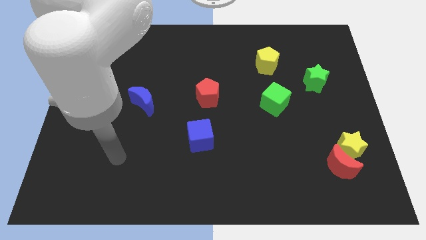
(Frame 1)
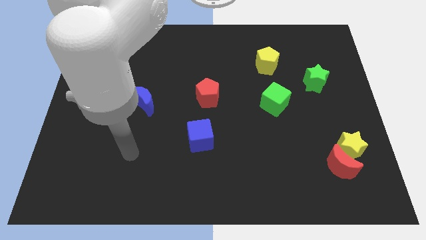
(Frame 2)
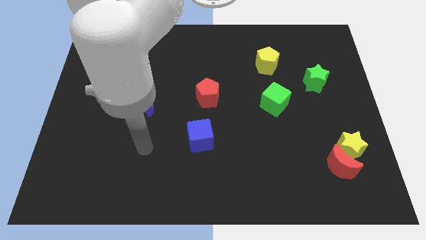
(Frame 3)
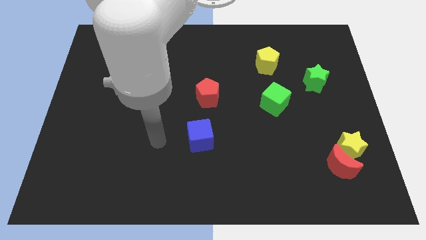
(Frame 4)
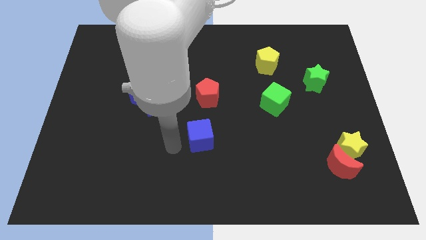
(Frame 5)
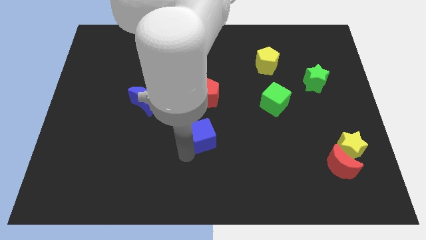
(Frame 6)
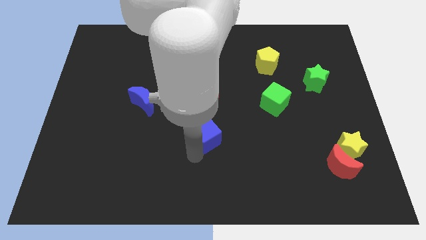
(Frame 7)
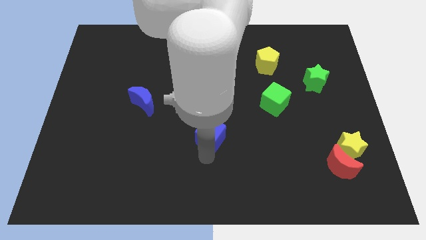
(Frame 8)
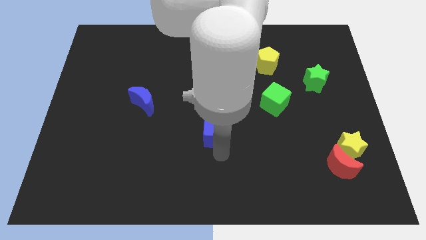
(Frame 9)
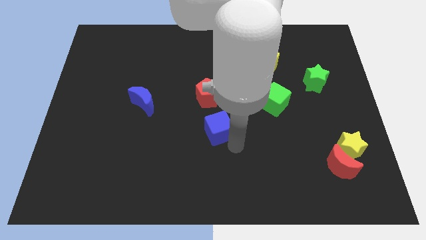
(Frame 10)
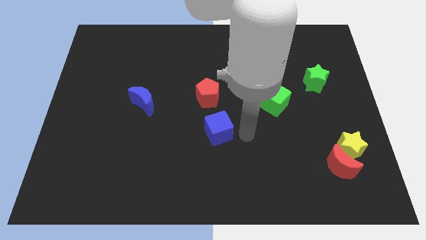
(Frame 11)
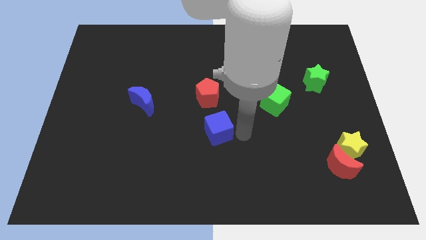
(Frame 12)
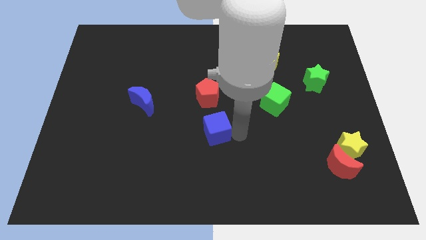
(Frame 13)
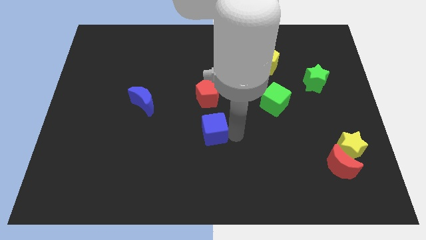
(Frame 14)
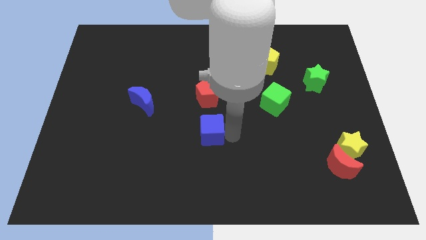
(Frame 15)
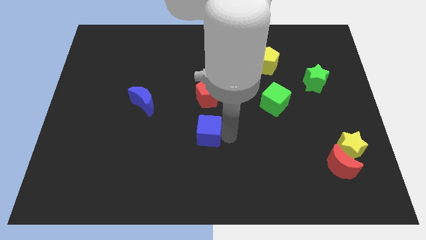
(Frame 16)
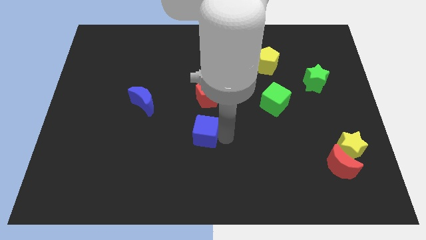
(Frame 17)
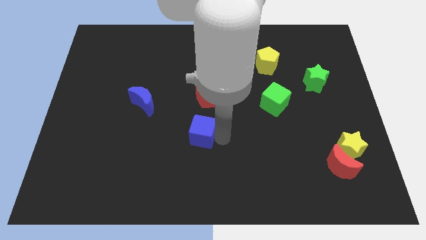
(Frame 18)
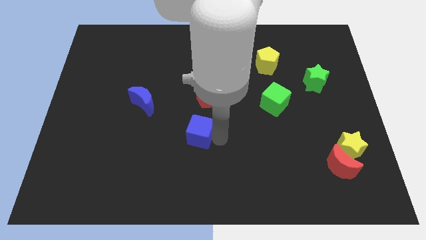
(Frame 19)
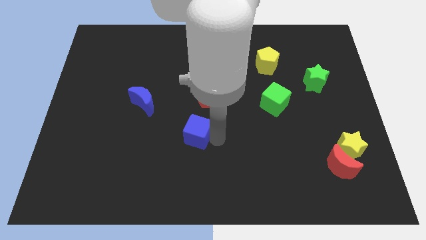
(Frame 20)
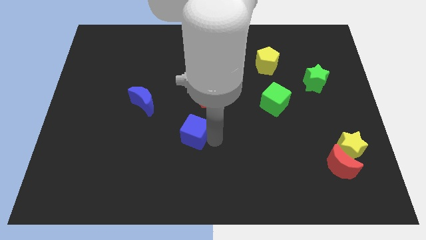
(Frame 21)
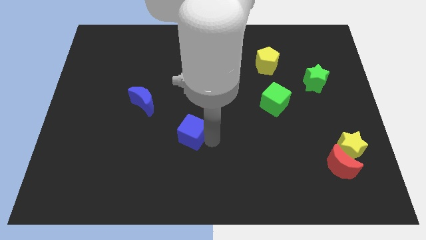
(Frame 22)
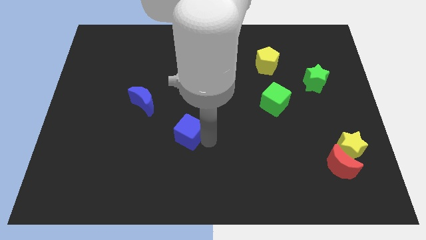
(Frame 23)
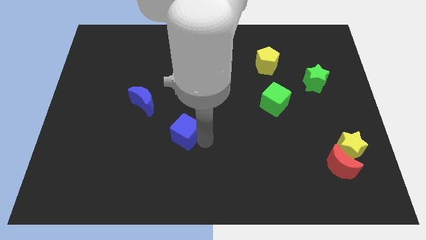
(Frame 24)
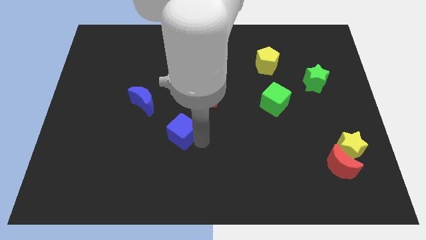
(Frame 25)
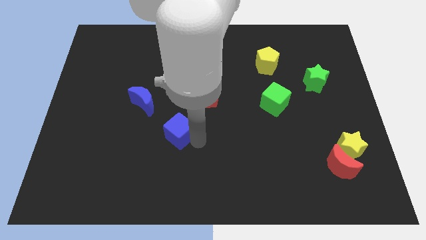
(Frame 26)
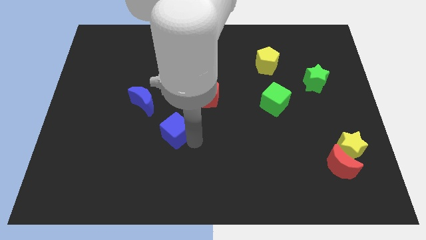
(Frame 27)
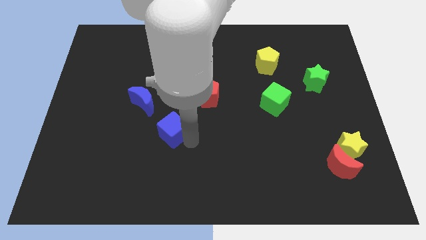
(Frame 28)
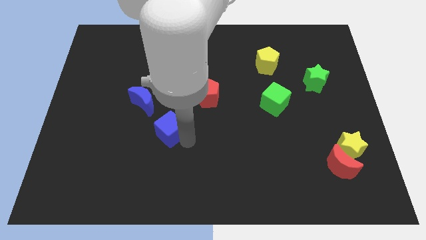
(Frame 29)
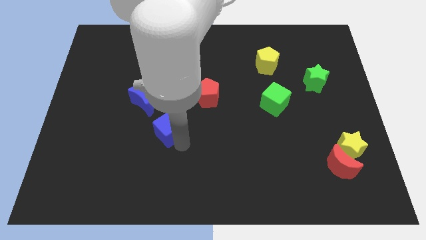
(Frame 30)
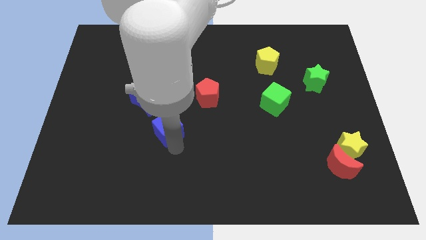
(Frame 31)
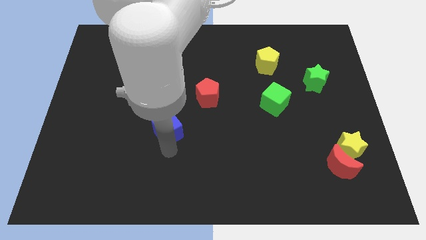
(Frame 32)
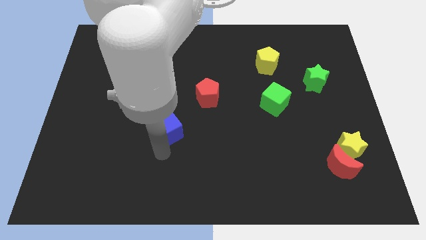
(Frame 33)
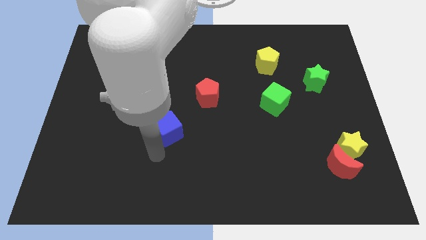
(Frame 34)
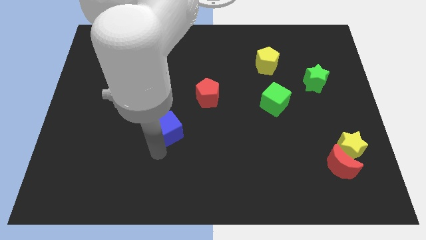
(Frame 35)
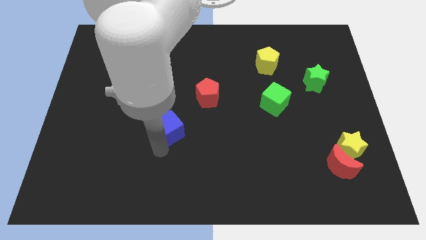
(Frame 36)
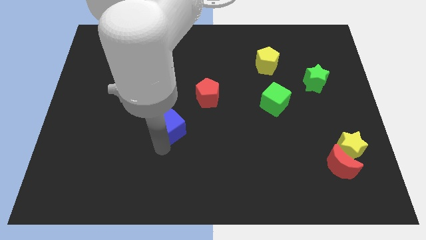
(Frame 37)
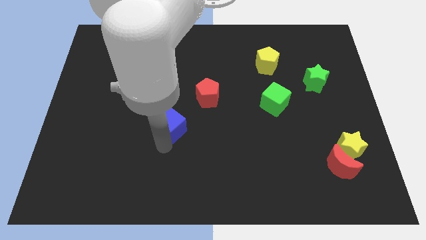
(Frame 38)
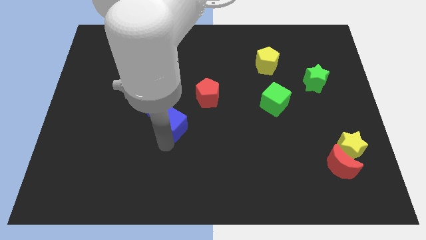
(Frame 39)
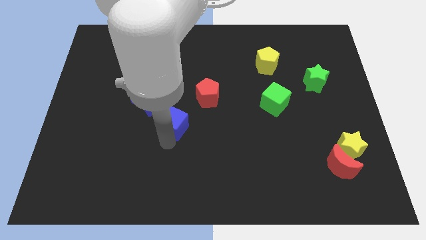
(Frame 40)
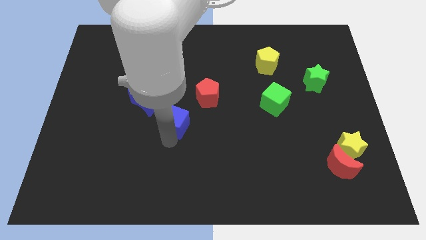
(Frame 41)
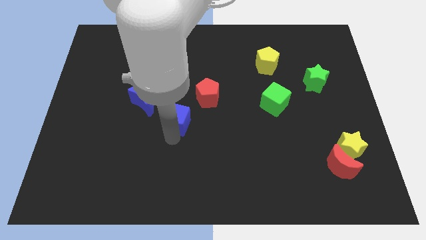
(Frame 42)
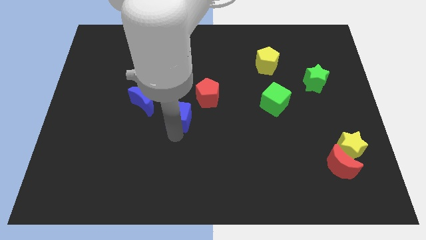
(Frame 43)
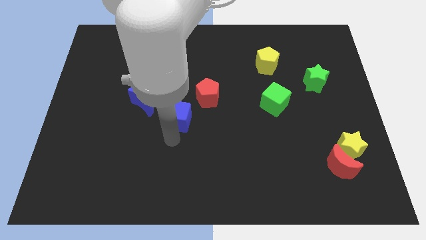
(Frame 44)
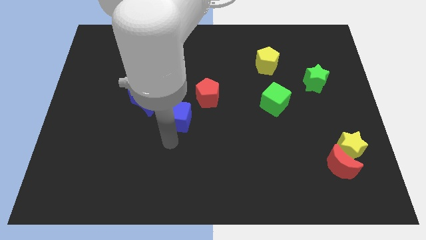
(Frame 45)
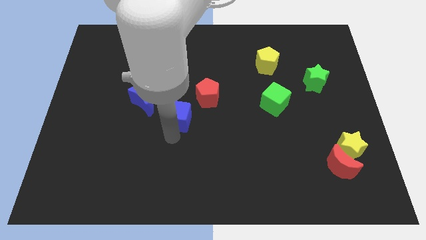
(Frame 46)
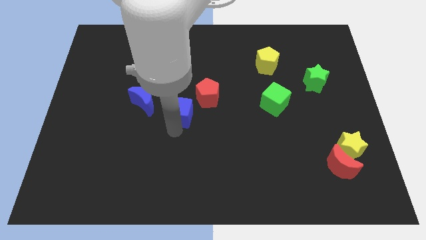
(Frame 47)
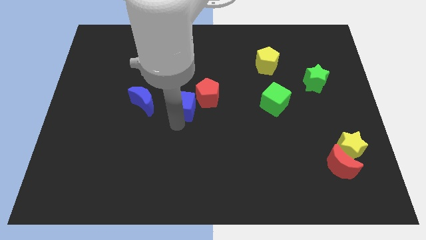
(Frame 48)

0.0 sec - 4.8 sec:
slightly slide the blue cube up

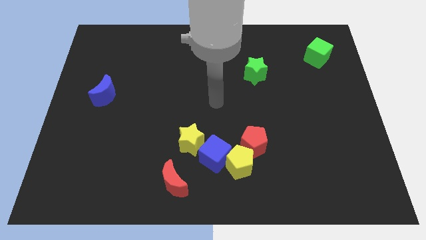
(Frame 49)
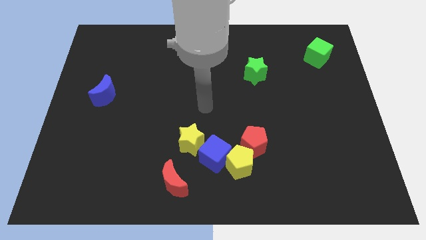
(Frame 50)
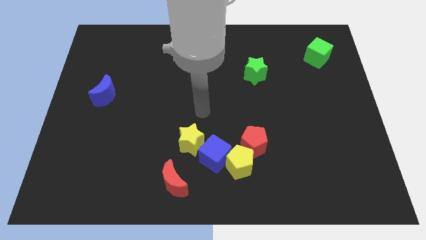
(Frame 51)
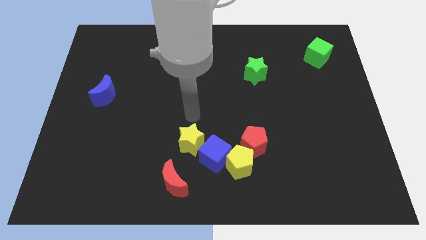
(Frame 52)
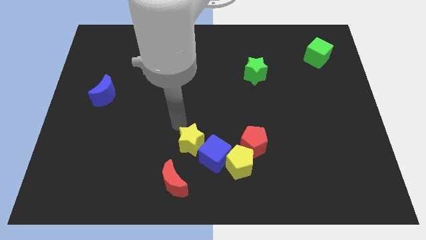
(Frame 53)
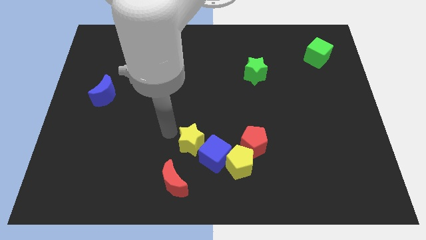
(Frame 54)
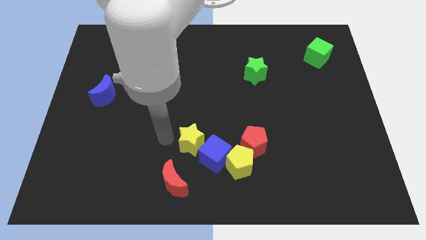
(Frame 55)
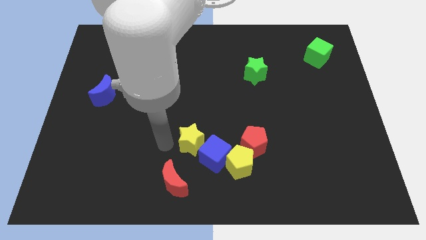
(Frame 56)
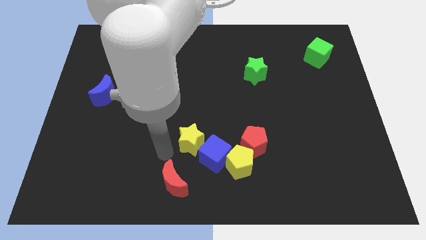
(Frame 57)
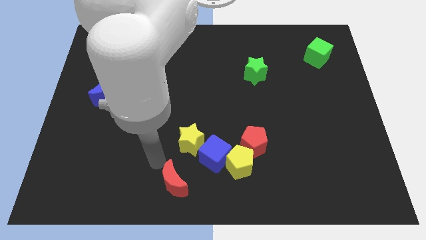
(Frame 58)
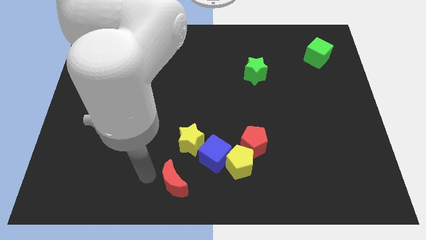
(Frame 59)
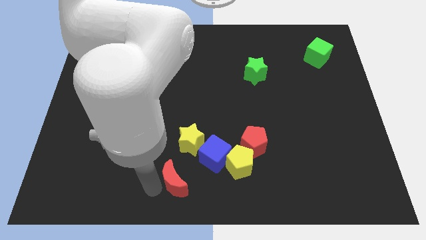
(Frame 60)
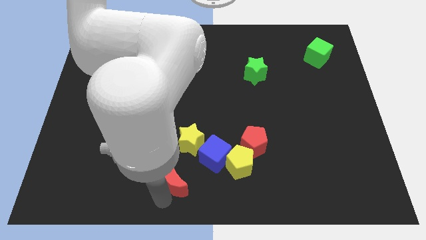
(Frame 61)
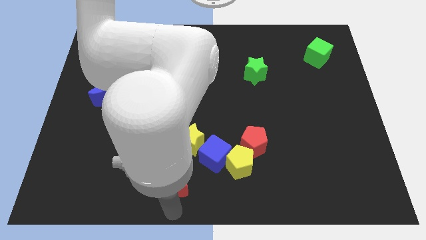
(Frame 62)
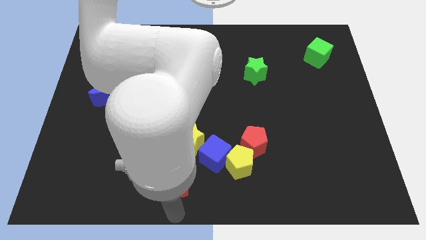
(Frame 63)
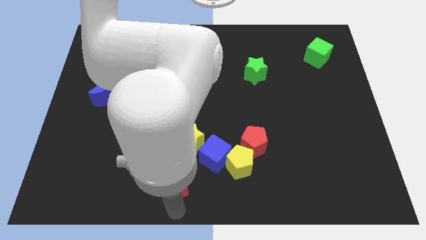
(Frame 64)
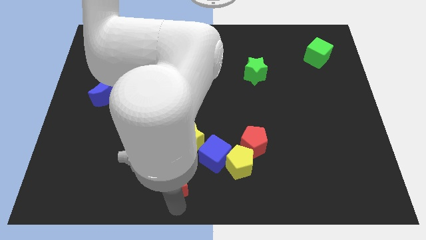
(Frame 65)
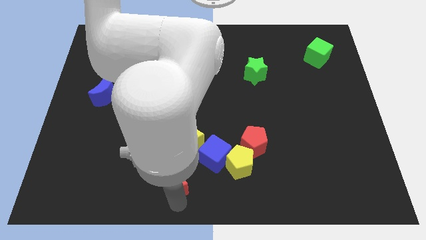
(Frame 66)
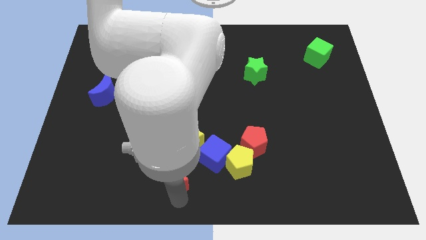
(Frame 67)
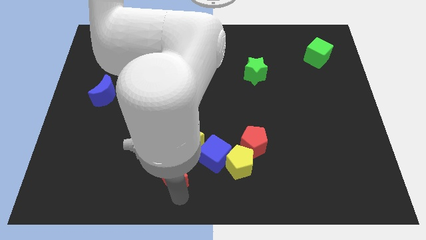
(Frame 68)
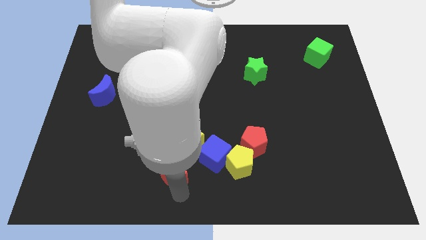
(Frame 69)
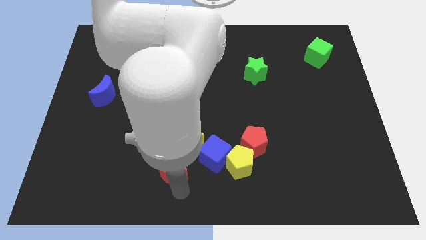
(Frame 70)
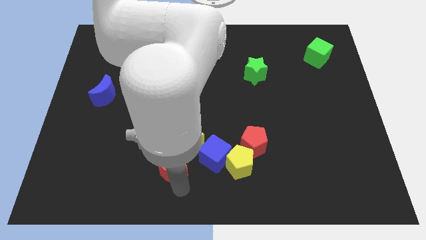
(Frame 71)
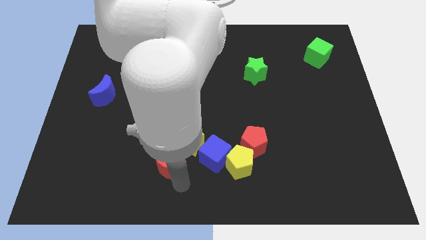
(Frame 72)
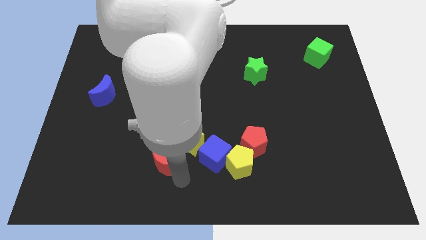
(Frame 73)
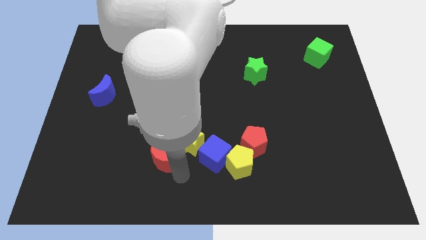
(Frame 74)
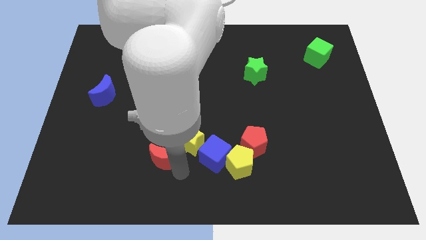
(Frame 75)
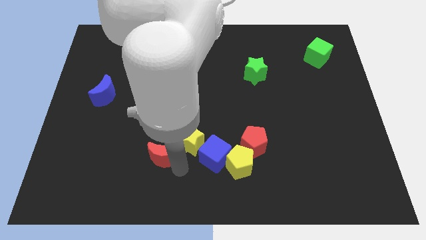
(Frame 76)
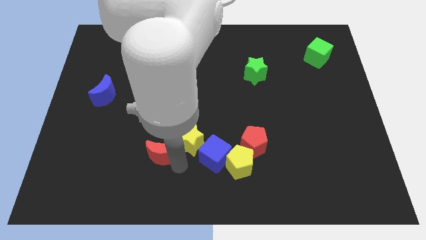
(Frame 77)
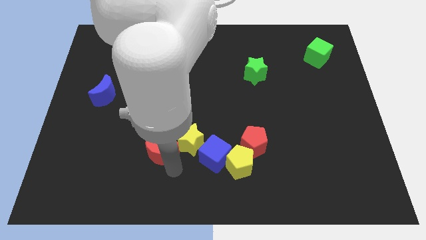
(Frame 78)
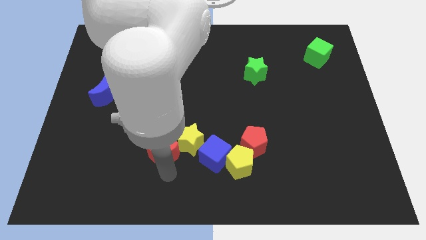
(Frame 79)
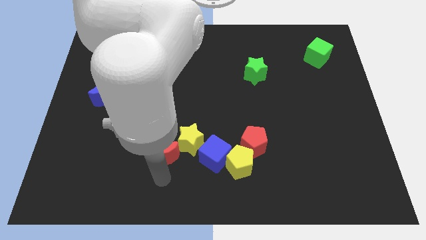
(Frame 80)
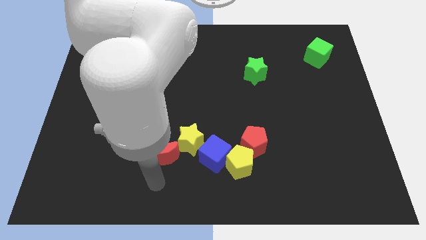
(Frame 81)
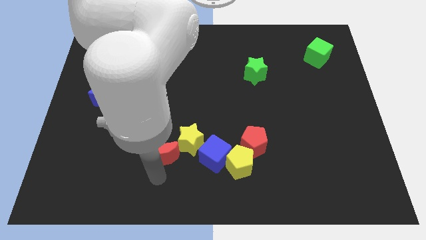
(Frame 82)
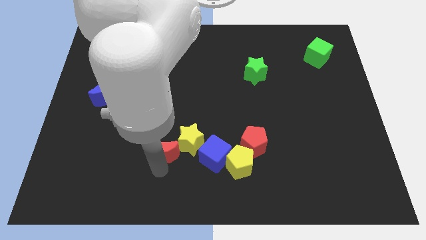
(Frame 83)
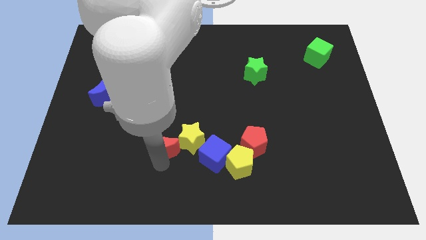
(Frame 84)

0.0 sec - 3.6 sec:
move the red moon a bit upwards
